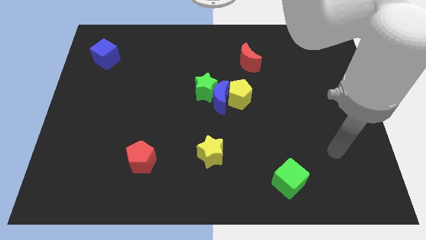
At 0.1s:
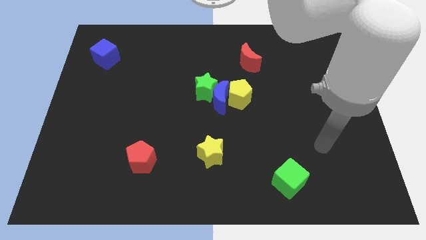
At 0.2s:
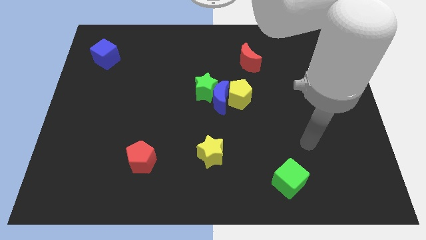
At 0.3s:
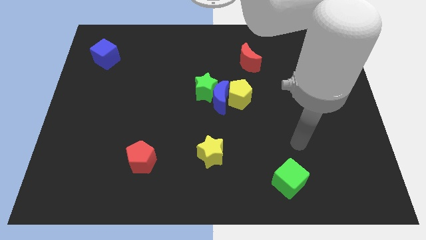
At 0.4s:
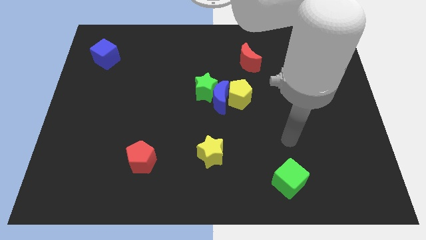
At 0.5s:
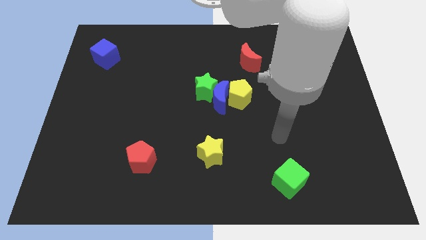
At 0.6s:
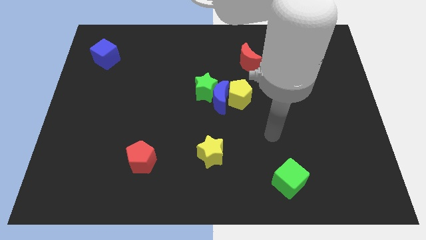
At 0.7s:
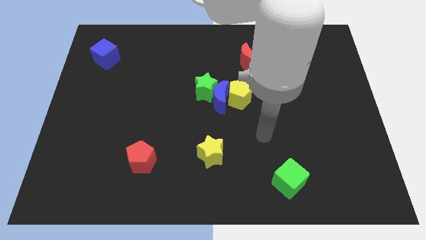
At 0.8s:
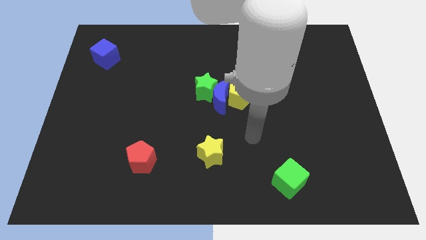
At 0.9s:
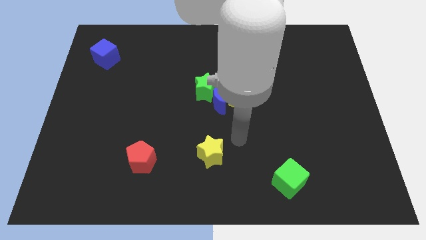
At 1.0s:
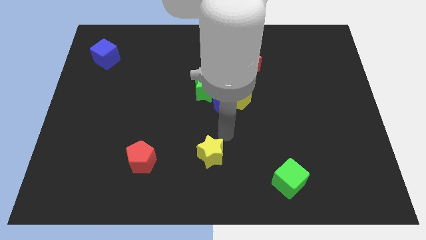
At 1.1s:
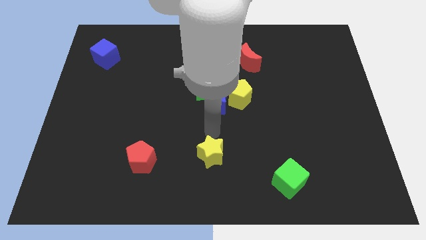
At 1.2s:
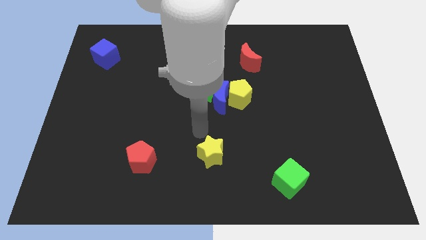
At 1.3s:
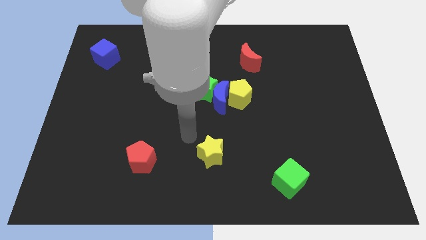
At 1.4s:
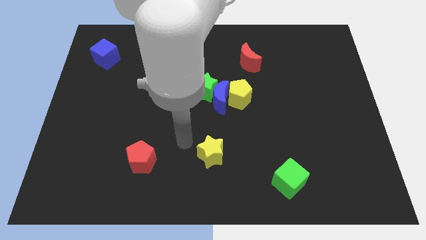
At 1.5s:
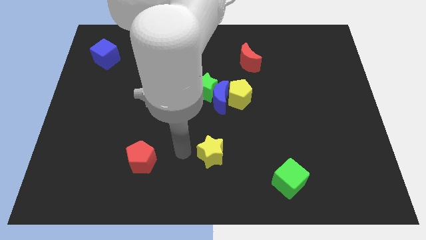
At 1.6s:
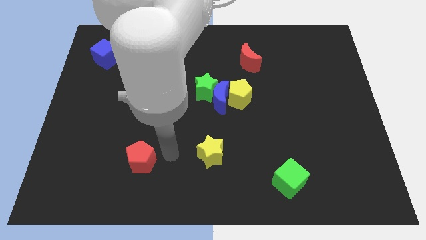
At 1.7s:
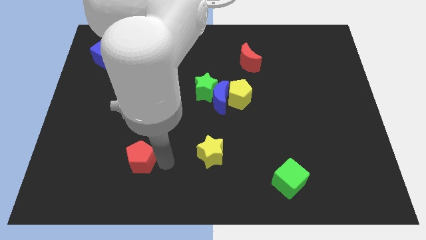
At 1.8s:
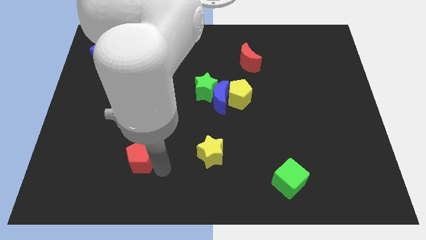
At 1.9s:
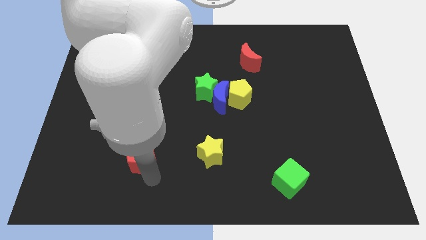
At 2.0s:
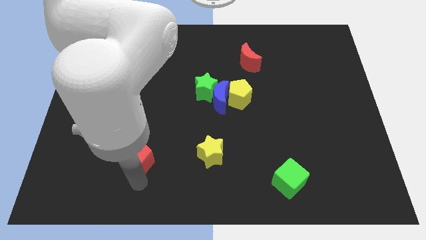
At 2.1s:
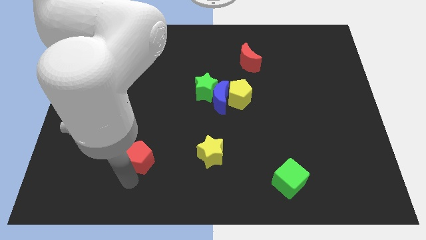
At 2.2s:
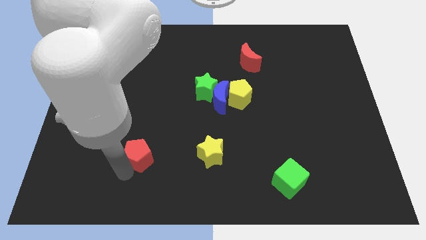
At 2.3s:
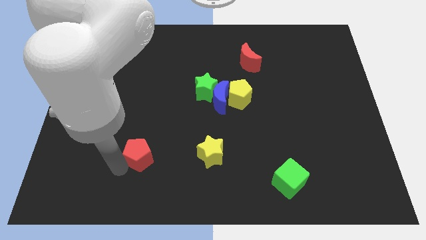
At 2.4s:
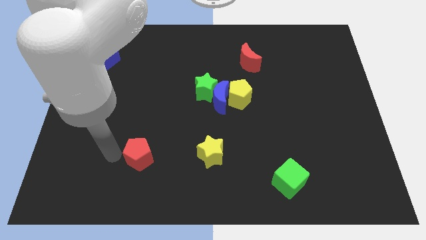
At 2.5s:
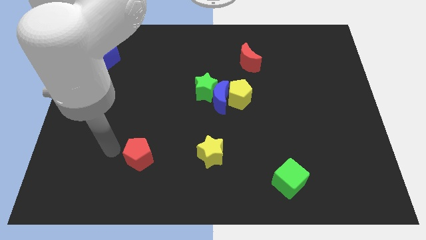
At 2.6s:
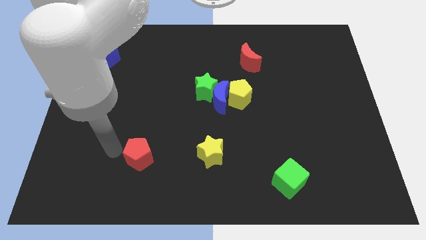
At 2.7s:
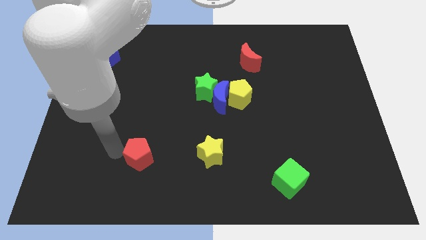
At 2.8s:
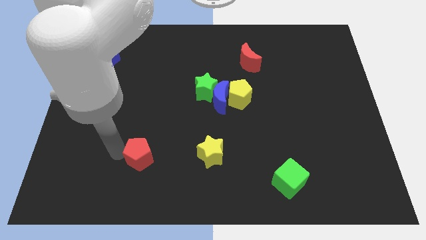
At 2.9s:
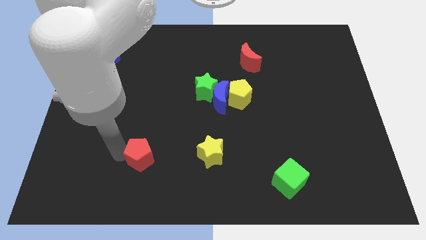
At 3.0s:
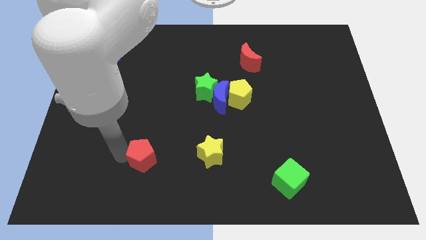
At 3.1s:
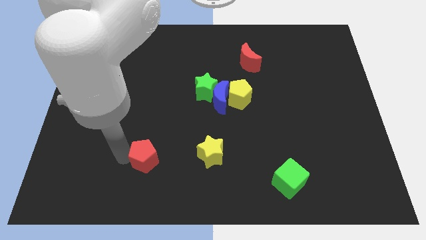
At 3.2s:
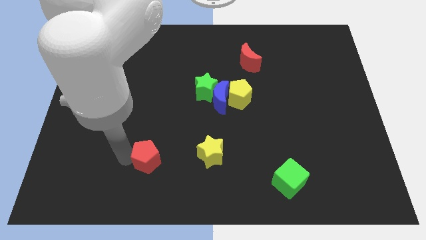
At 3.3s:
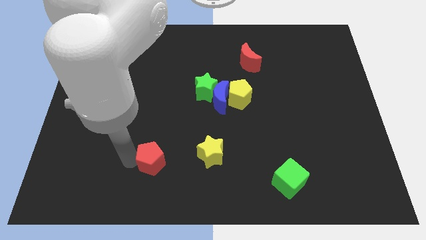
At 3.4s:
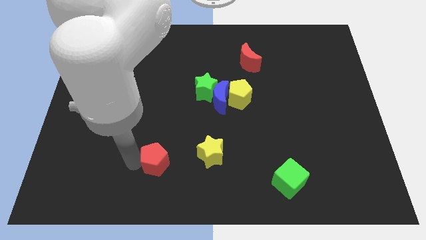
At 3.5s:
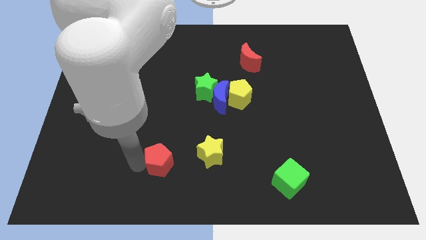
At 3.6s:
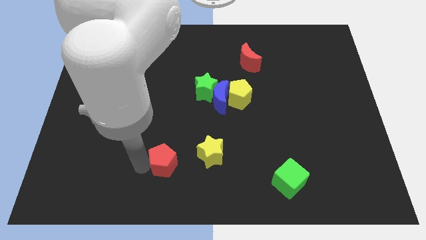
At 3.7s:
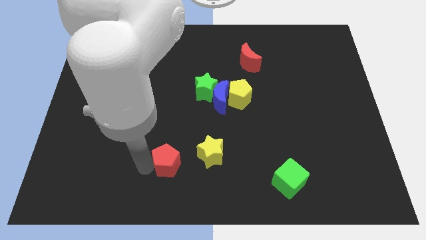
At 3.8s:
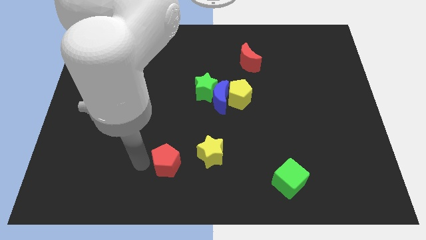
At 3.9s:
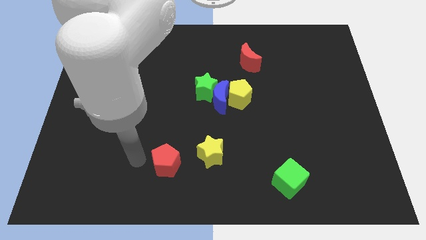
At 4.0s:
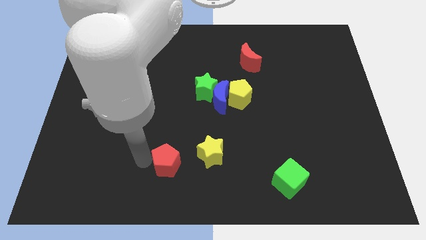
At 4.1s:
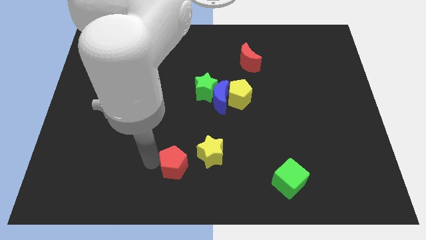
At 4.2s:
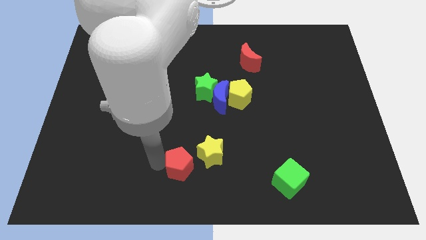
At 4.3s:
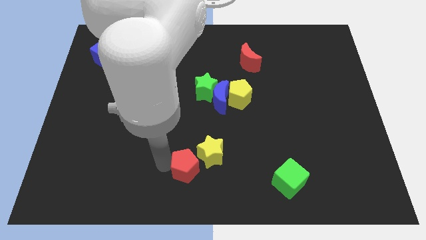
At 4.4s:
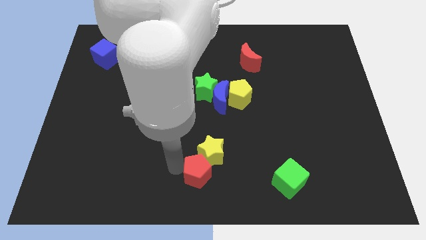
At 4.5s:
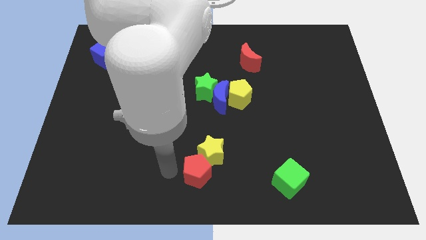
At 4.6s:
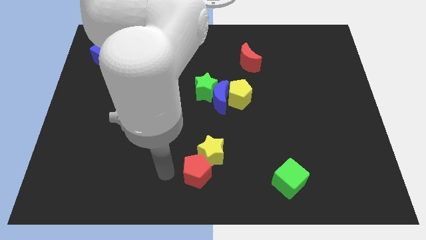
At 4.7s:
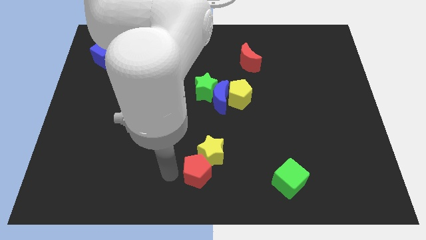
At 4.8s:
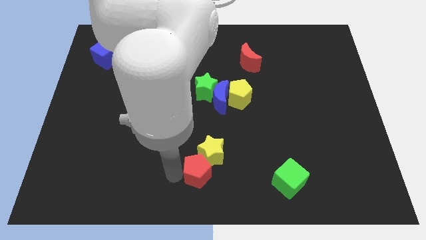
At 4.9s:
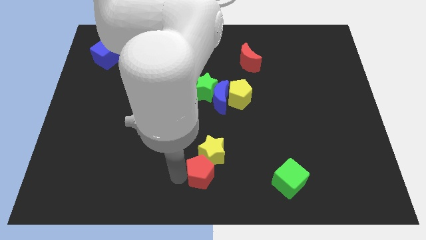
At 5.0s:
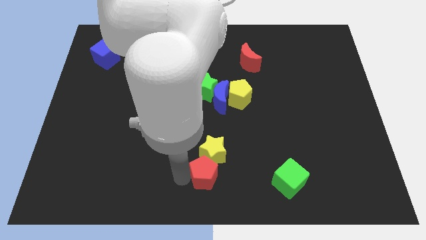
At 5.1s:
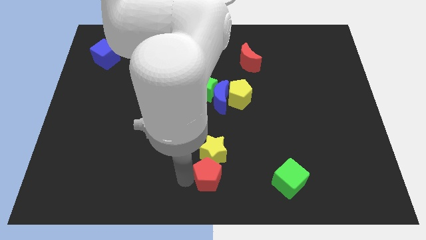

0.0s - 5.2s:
slide the red pentagon to the bottom right of the yellow star

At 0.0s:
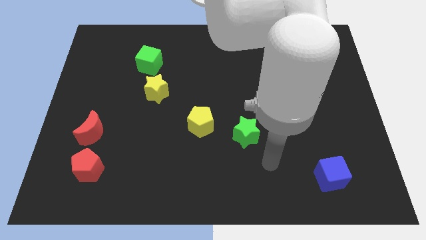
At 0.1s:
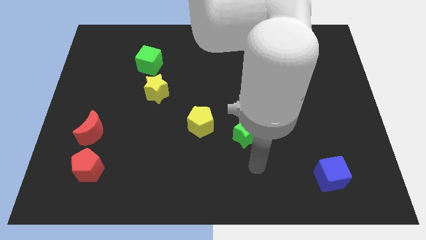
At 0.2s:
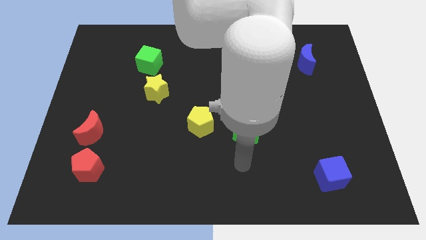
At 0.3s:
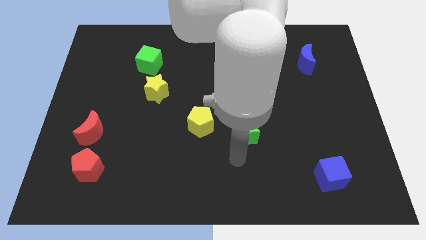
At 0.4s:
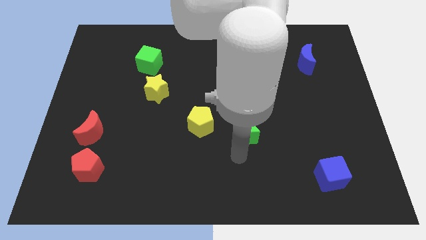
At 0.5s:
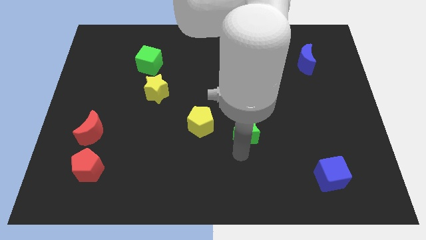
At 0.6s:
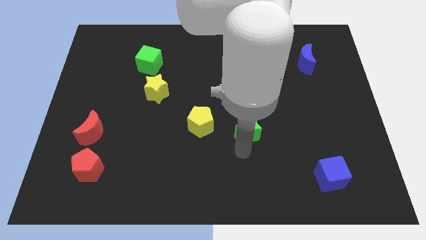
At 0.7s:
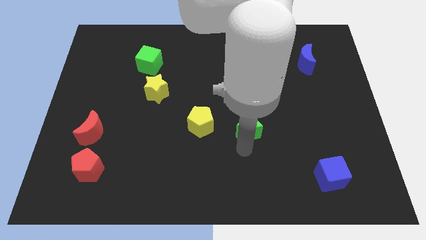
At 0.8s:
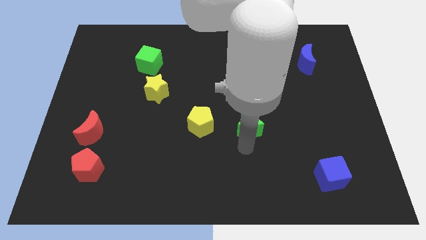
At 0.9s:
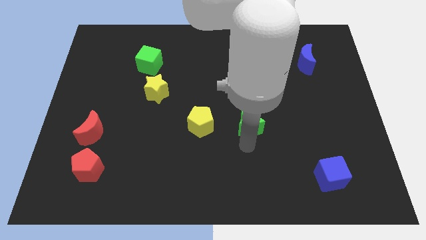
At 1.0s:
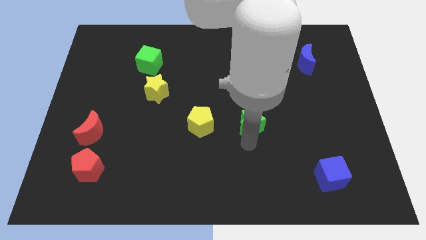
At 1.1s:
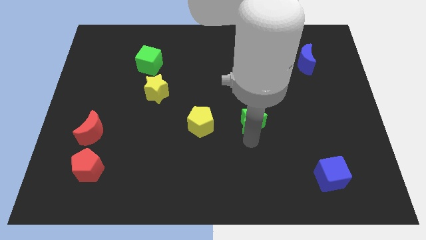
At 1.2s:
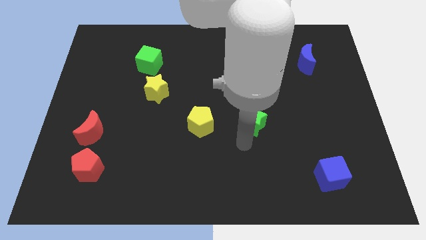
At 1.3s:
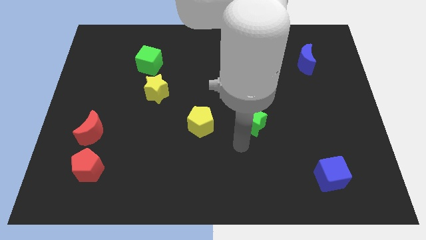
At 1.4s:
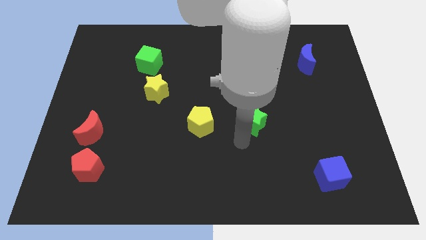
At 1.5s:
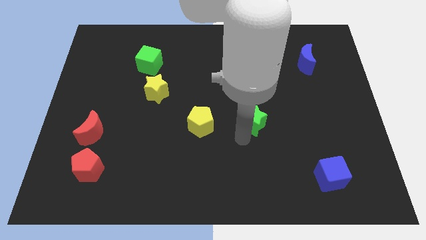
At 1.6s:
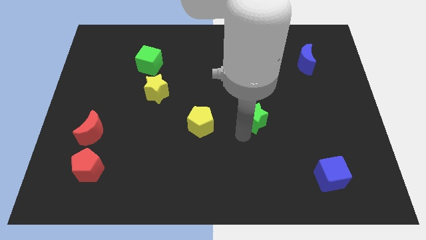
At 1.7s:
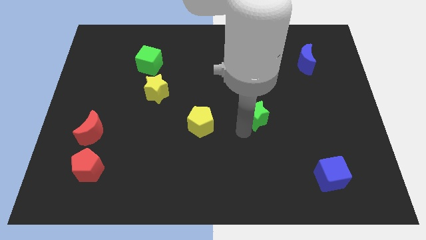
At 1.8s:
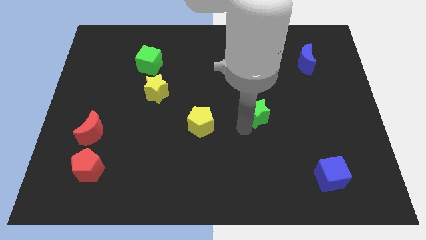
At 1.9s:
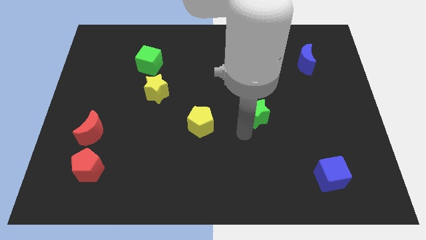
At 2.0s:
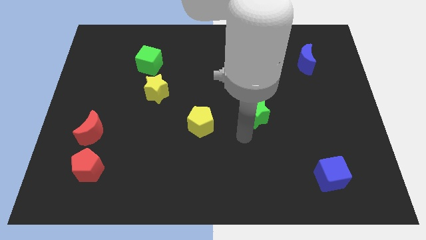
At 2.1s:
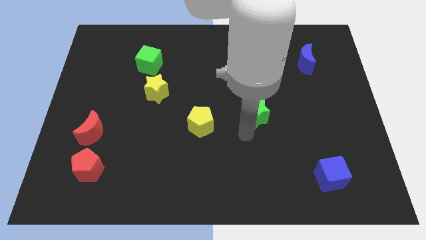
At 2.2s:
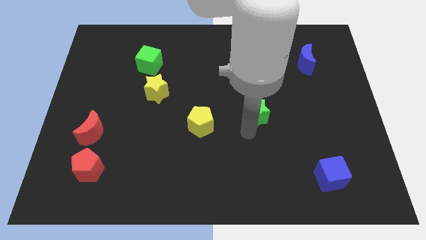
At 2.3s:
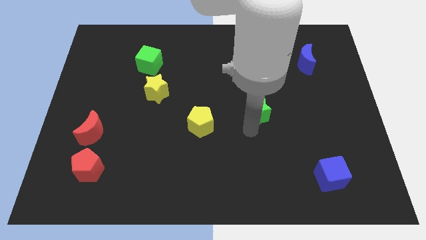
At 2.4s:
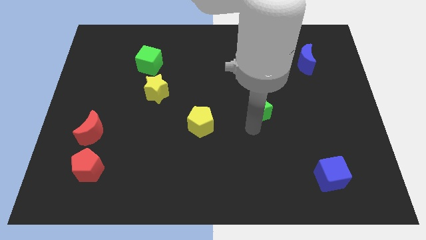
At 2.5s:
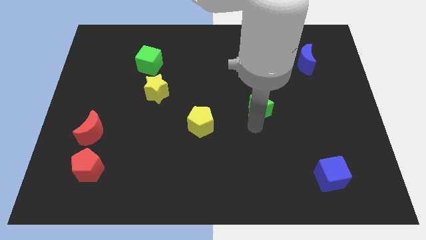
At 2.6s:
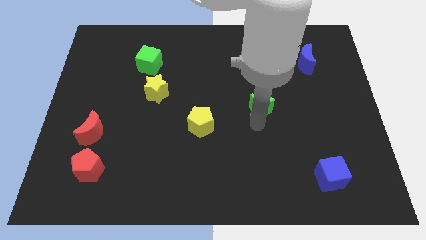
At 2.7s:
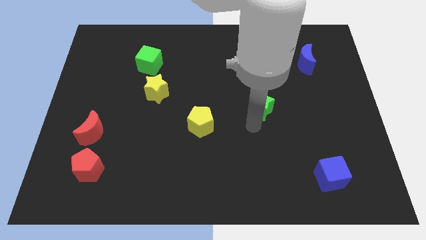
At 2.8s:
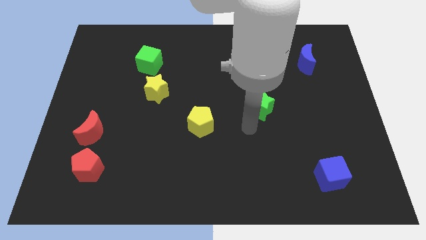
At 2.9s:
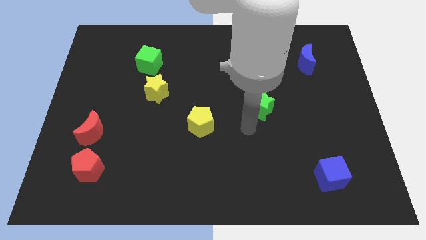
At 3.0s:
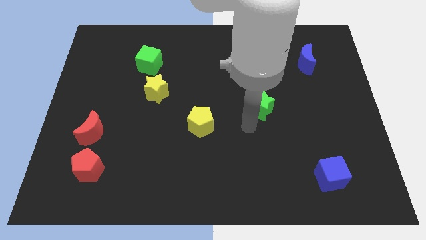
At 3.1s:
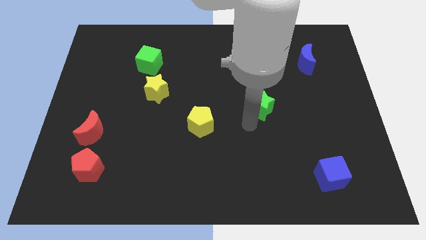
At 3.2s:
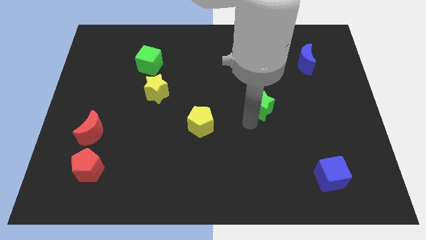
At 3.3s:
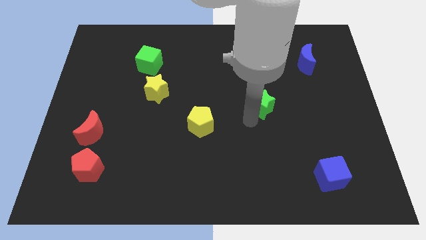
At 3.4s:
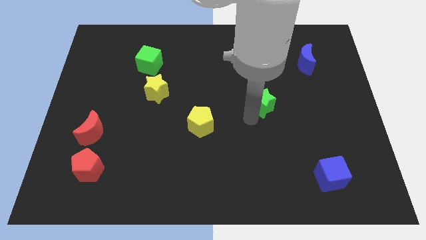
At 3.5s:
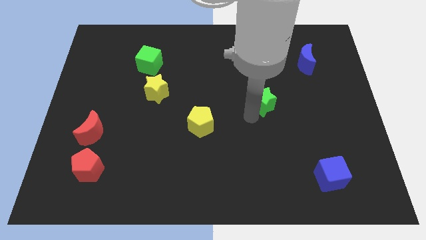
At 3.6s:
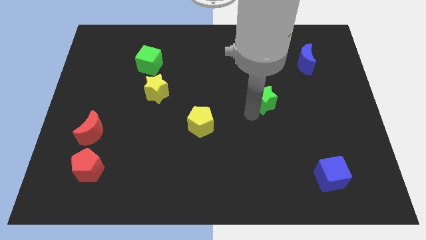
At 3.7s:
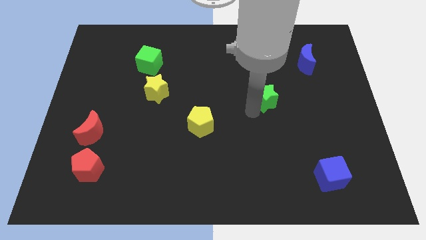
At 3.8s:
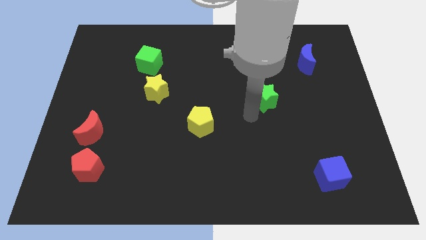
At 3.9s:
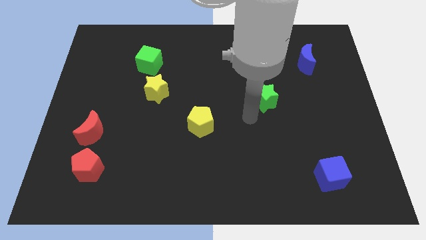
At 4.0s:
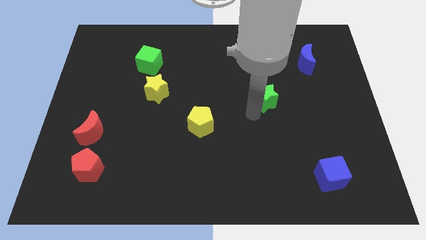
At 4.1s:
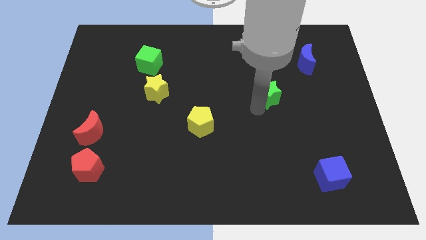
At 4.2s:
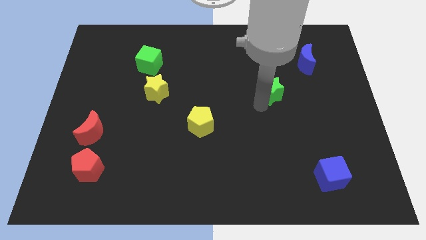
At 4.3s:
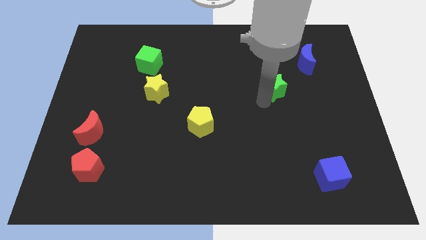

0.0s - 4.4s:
move the green star diagonally down and to the left of the blue moon
